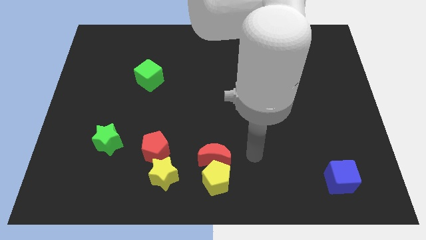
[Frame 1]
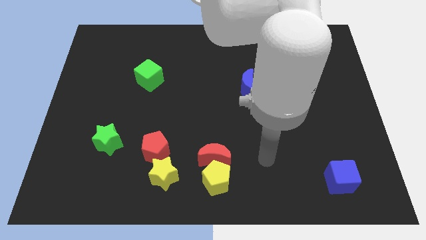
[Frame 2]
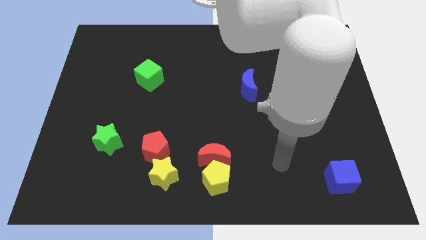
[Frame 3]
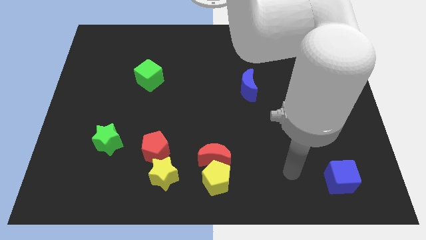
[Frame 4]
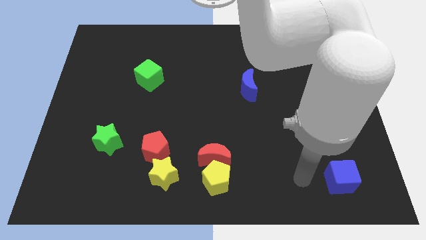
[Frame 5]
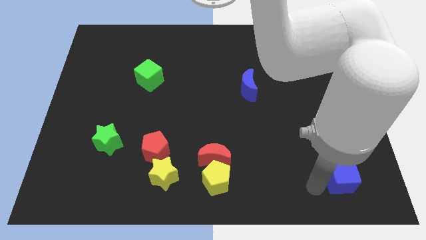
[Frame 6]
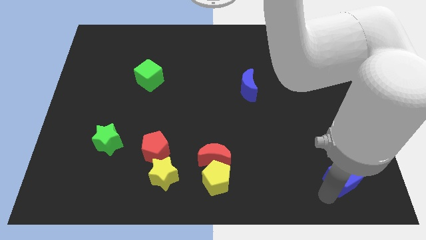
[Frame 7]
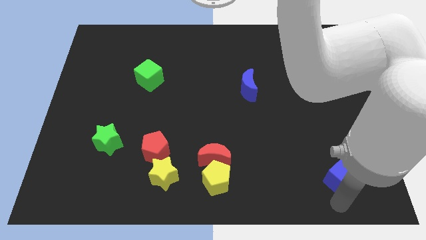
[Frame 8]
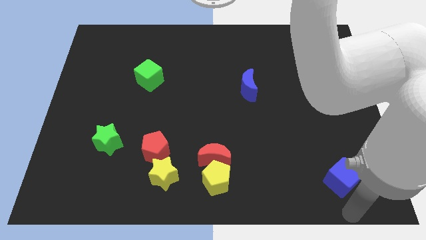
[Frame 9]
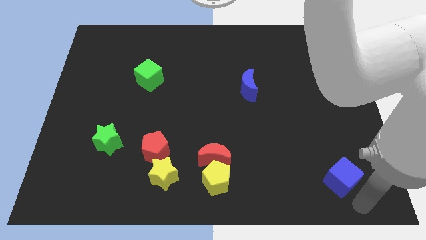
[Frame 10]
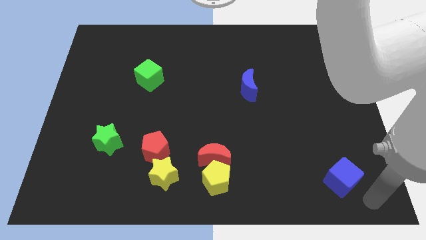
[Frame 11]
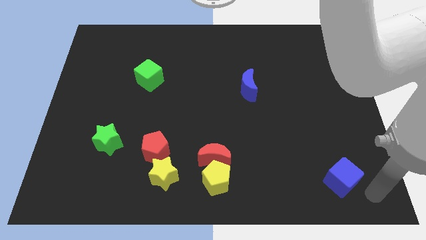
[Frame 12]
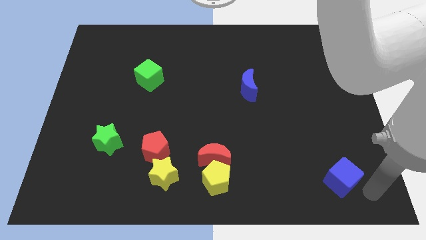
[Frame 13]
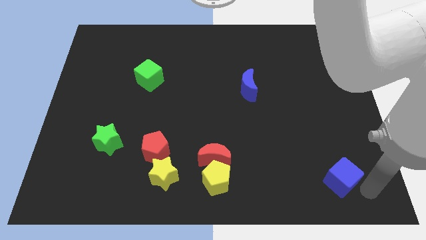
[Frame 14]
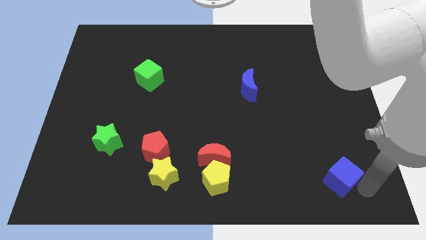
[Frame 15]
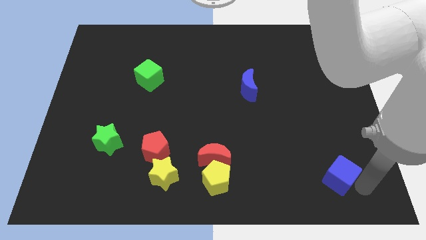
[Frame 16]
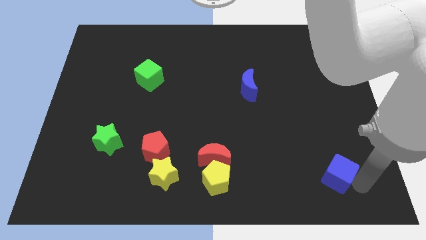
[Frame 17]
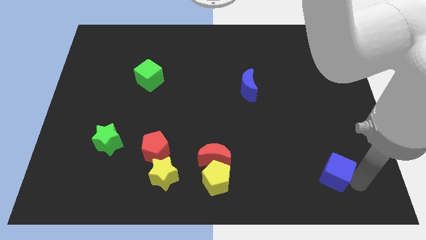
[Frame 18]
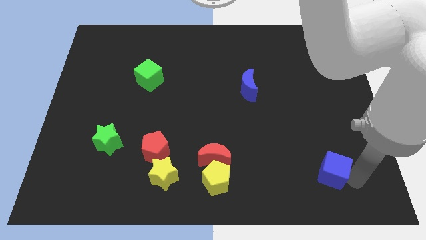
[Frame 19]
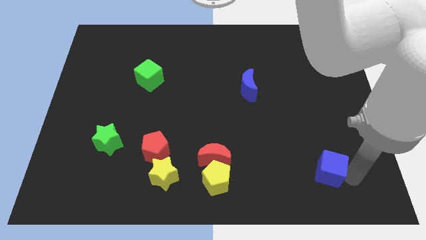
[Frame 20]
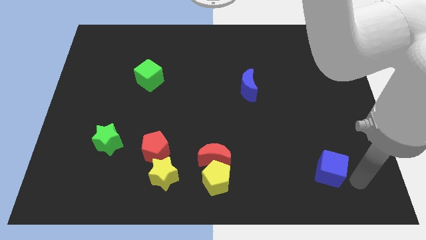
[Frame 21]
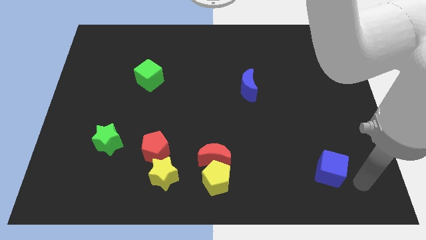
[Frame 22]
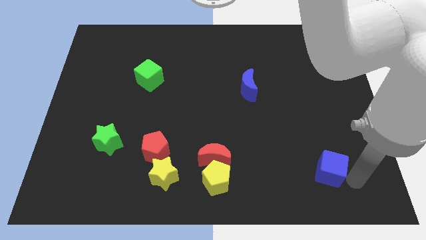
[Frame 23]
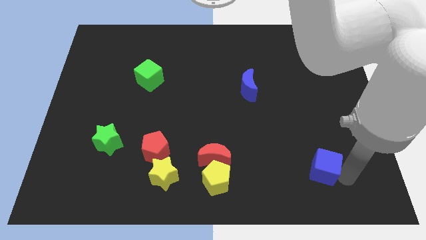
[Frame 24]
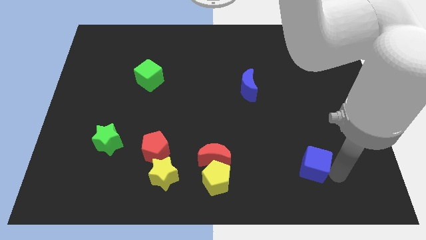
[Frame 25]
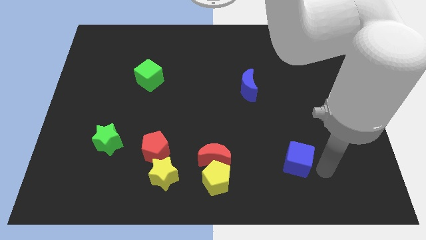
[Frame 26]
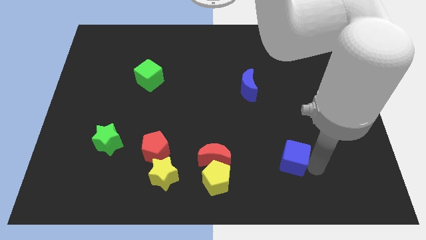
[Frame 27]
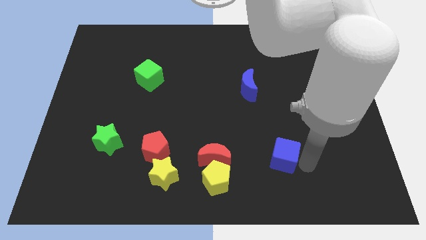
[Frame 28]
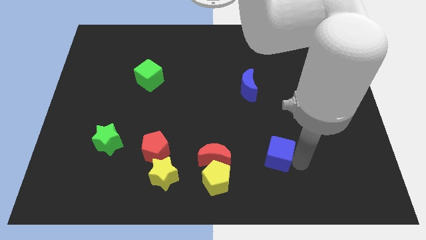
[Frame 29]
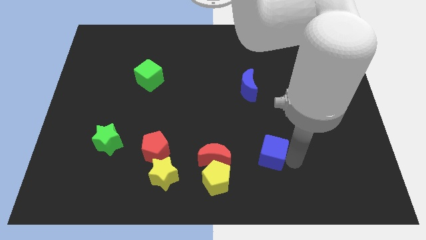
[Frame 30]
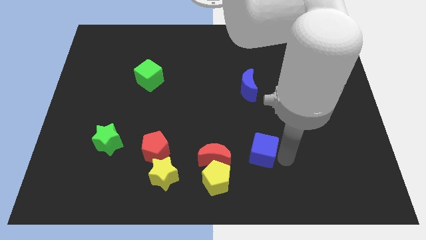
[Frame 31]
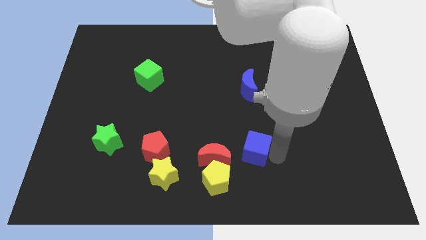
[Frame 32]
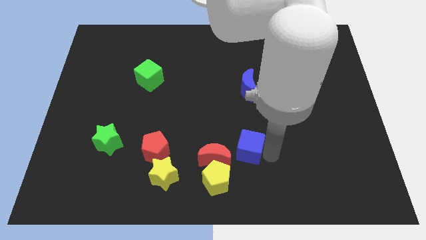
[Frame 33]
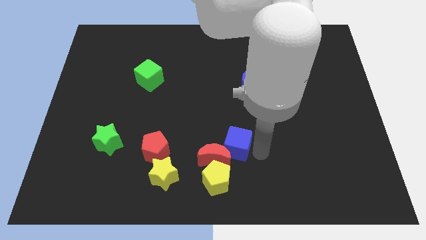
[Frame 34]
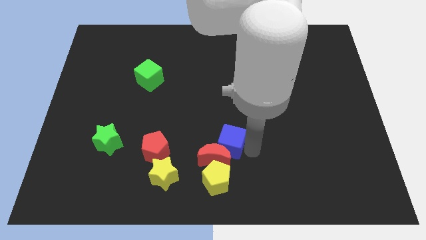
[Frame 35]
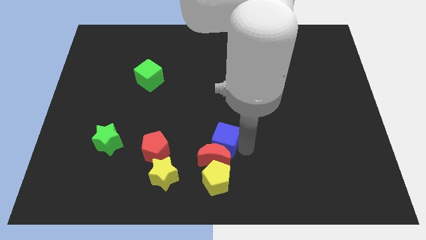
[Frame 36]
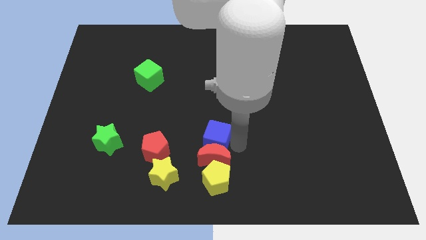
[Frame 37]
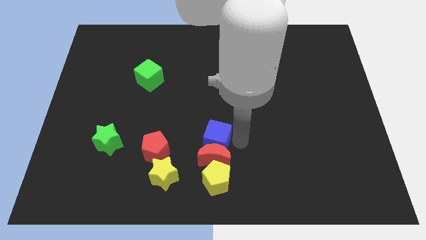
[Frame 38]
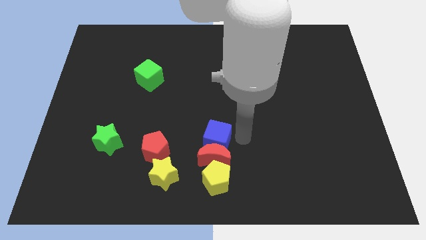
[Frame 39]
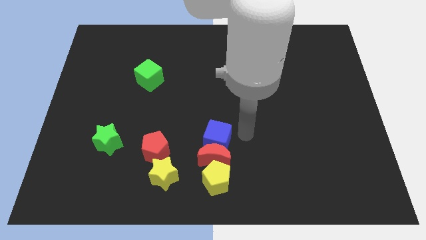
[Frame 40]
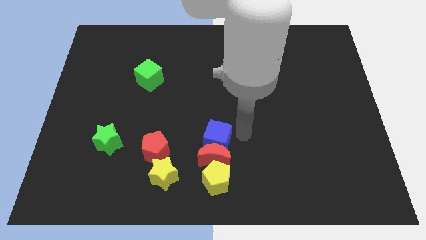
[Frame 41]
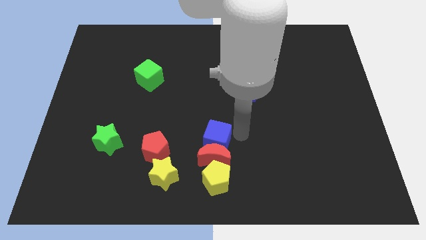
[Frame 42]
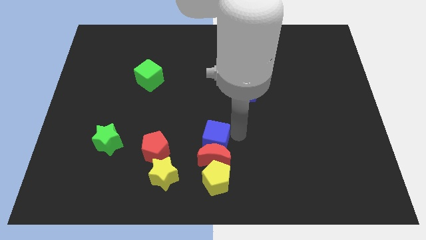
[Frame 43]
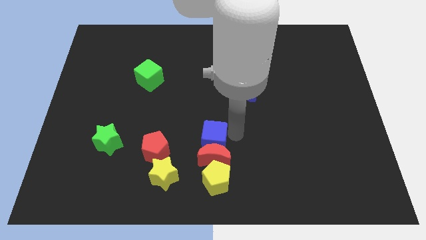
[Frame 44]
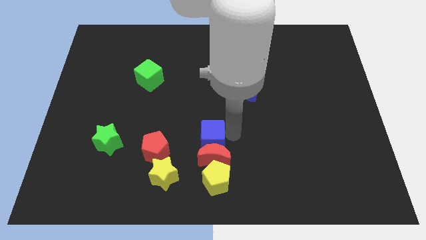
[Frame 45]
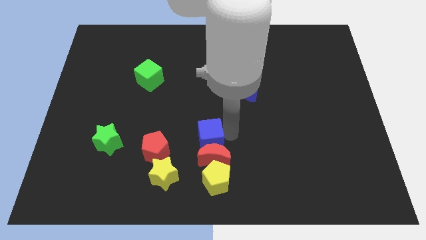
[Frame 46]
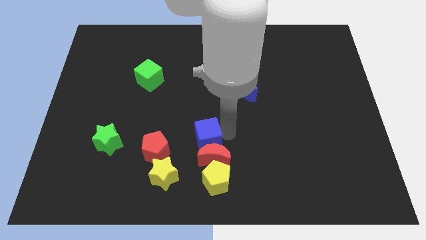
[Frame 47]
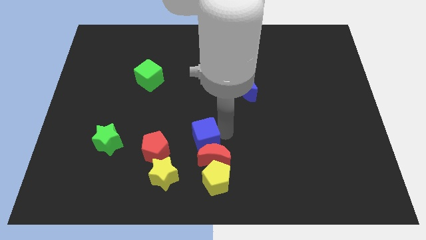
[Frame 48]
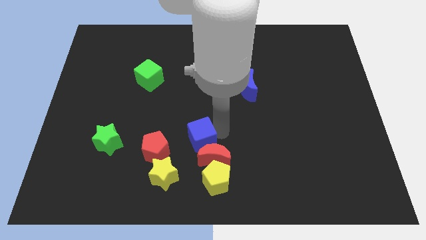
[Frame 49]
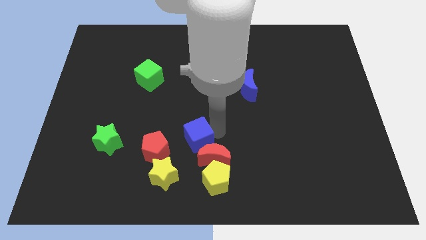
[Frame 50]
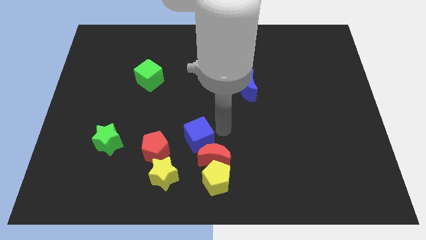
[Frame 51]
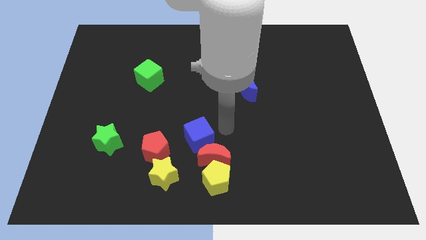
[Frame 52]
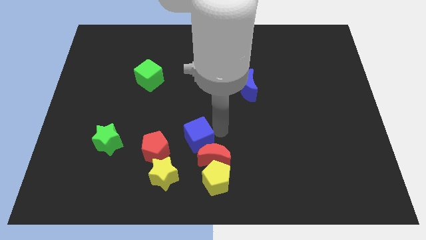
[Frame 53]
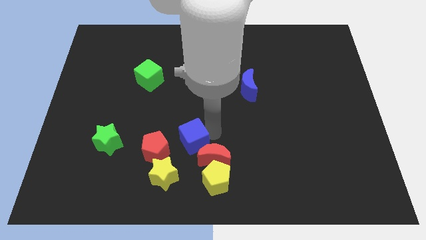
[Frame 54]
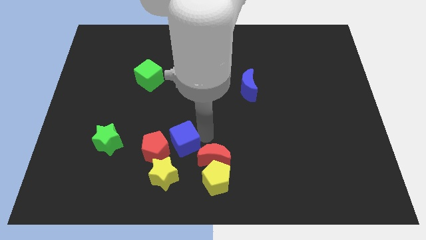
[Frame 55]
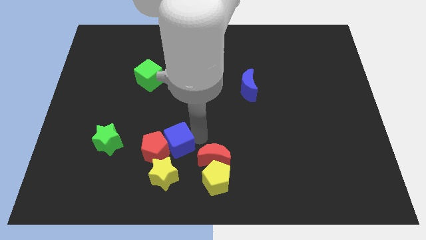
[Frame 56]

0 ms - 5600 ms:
slide the blue cube next to the red pentagon
